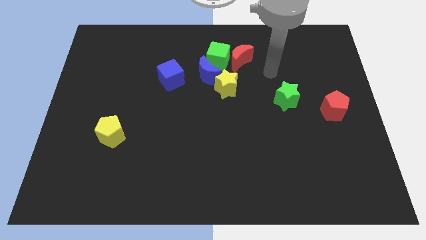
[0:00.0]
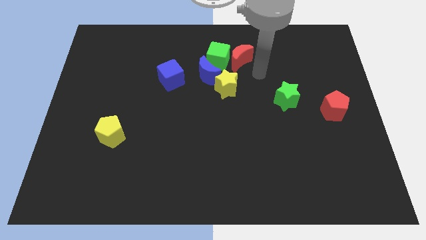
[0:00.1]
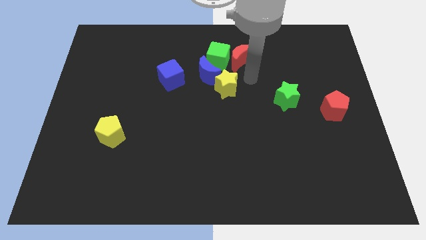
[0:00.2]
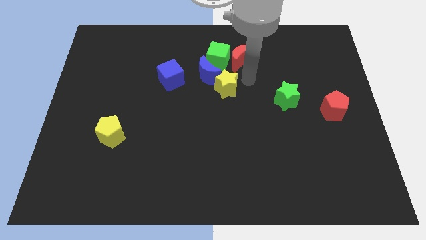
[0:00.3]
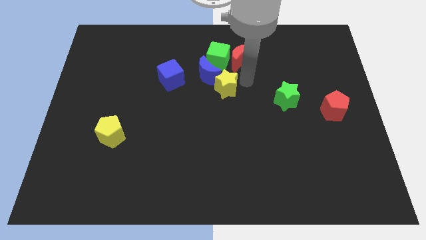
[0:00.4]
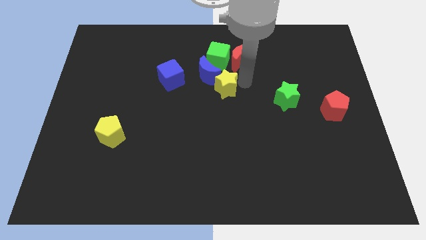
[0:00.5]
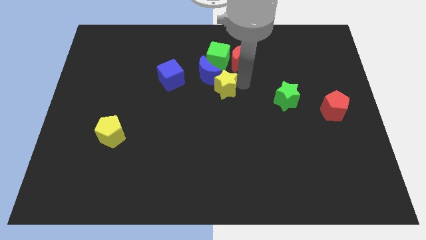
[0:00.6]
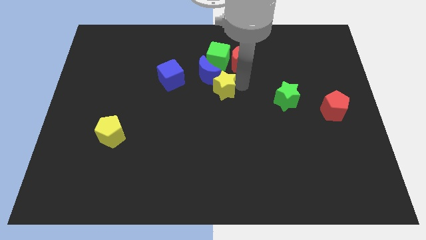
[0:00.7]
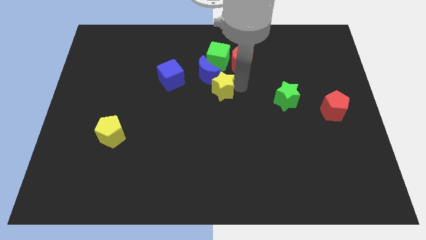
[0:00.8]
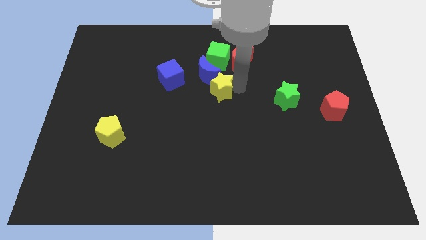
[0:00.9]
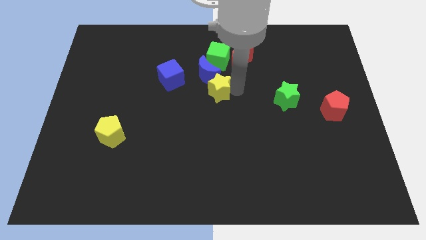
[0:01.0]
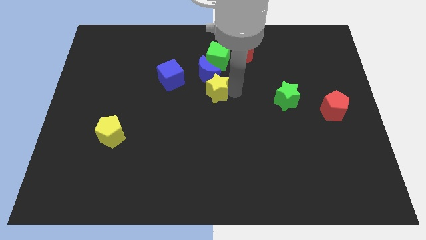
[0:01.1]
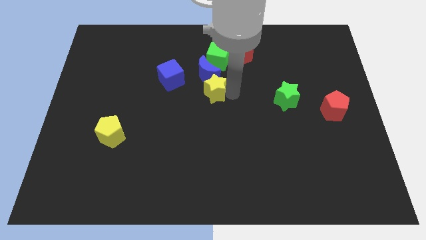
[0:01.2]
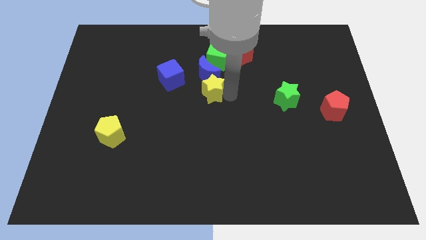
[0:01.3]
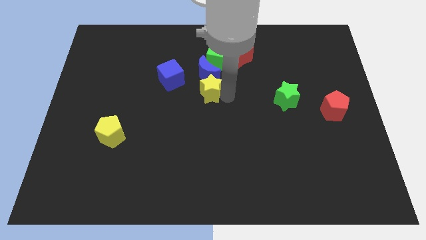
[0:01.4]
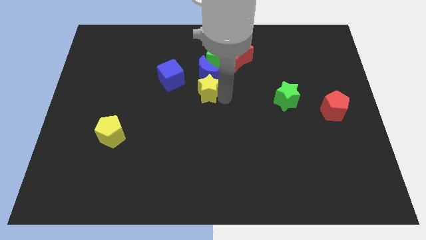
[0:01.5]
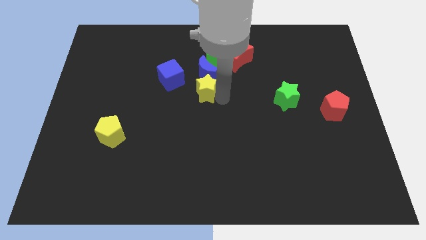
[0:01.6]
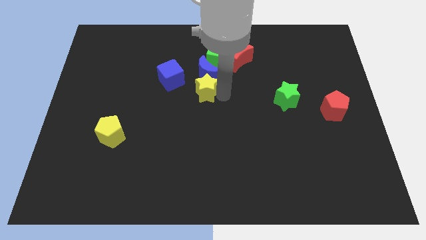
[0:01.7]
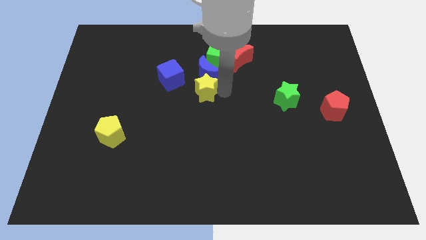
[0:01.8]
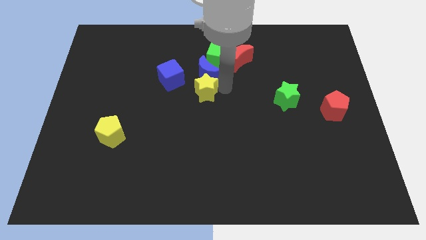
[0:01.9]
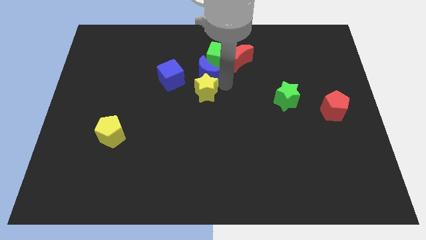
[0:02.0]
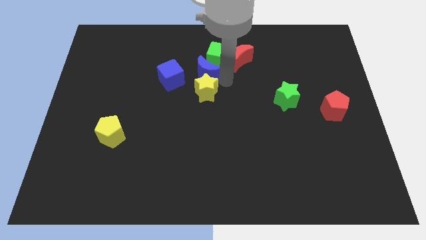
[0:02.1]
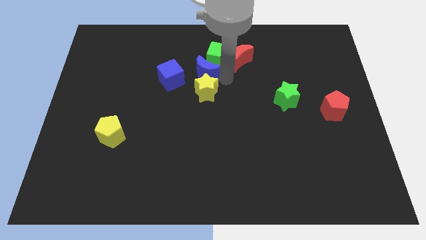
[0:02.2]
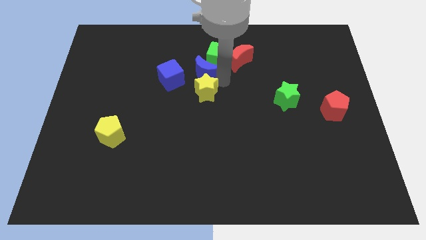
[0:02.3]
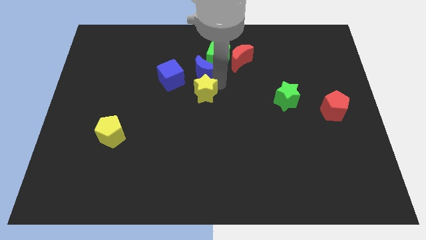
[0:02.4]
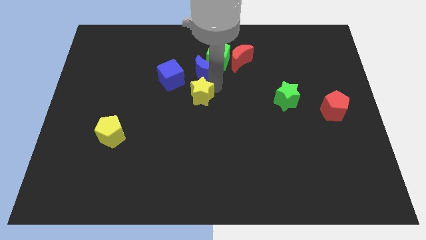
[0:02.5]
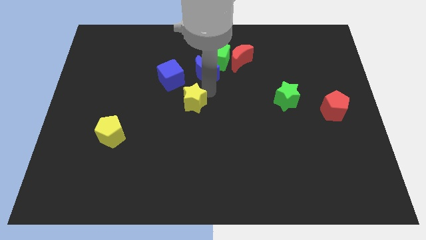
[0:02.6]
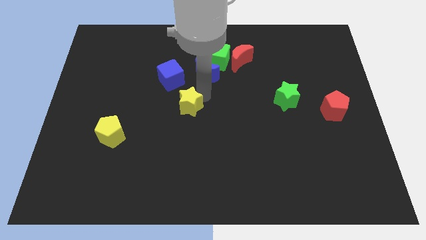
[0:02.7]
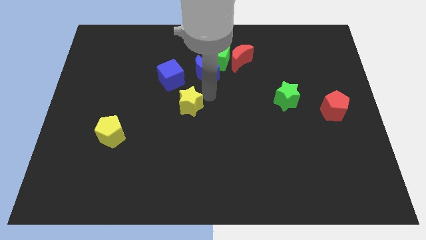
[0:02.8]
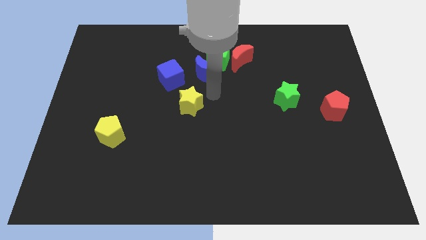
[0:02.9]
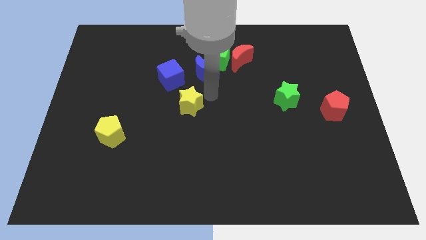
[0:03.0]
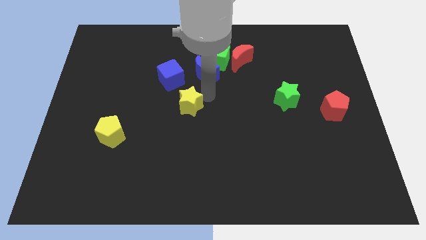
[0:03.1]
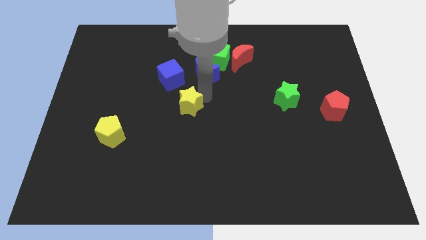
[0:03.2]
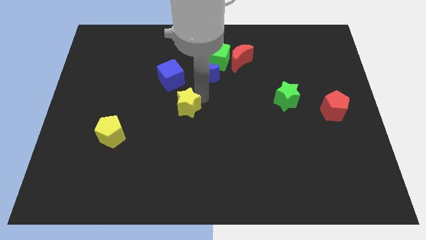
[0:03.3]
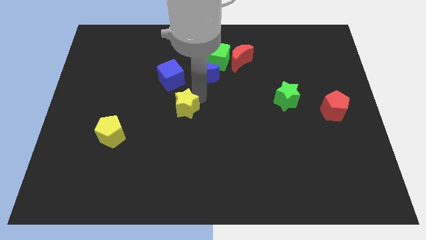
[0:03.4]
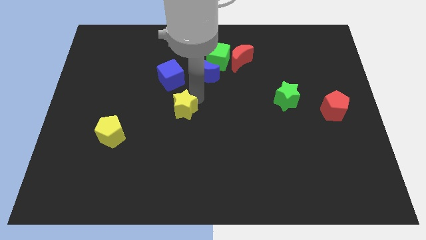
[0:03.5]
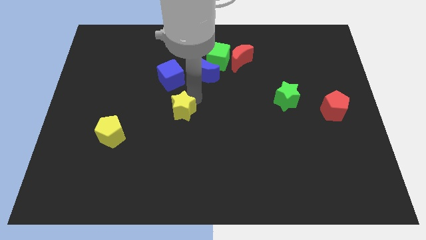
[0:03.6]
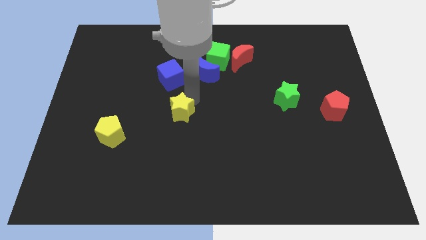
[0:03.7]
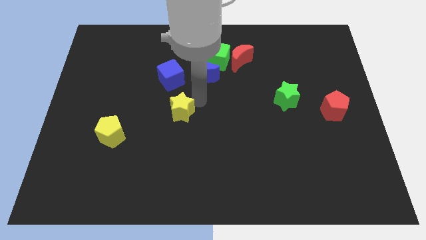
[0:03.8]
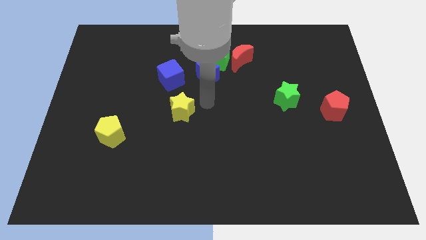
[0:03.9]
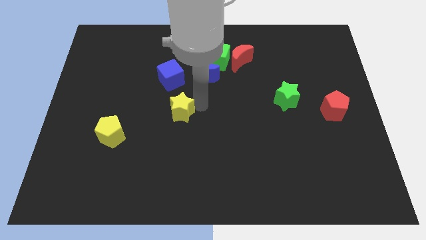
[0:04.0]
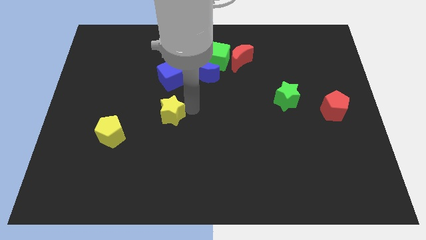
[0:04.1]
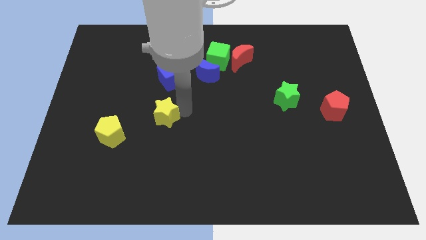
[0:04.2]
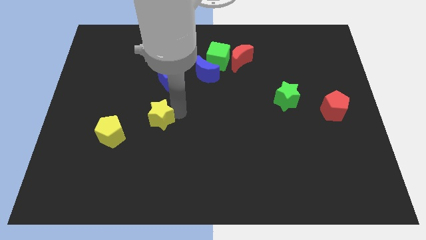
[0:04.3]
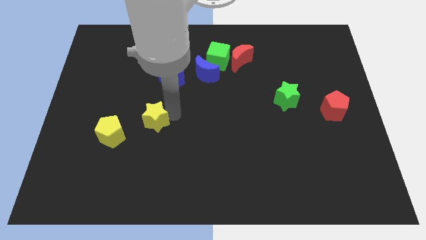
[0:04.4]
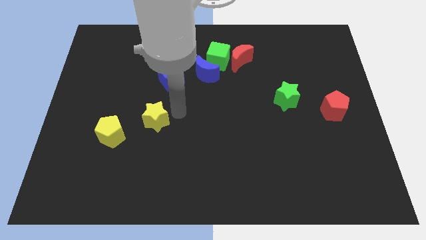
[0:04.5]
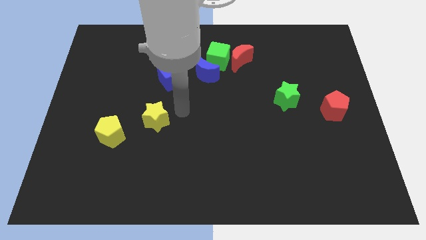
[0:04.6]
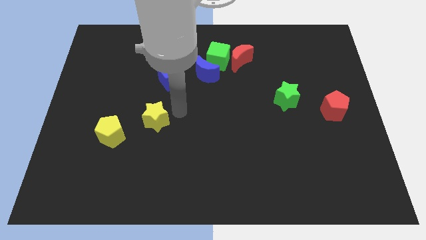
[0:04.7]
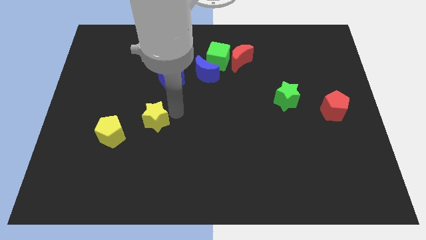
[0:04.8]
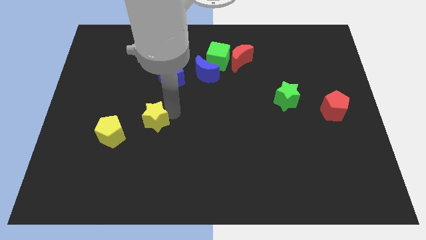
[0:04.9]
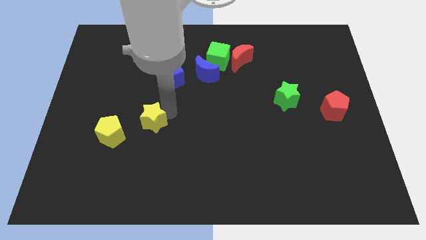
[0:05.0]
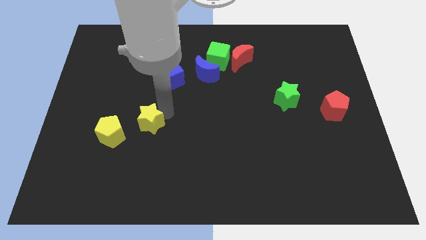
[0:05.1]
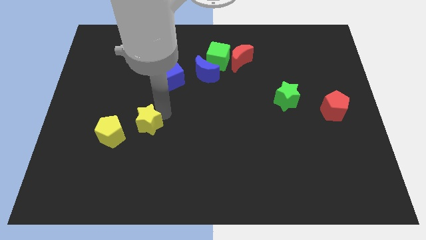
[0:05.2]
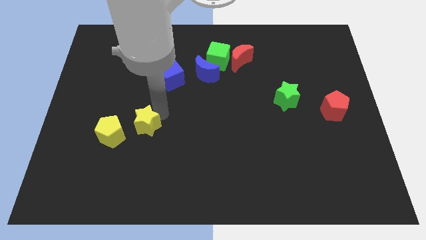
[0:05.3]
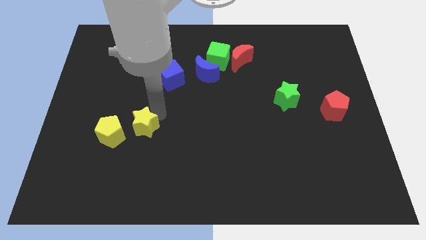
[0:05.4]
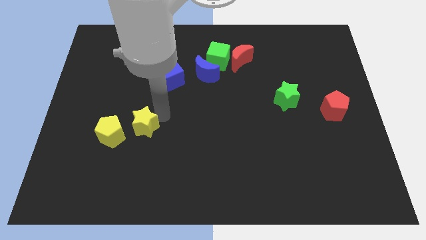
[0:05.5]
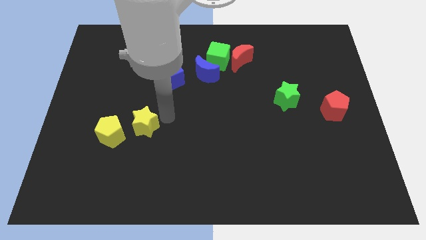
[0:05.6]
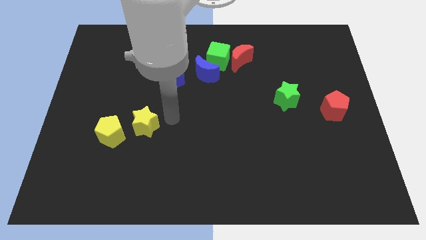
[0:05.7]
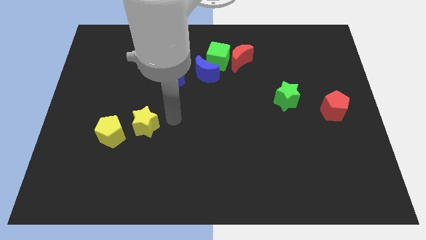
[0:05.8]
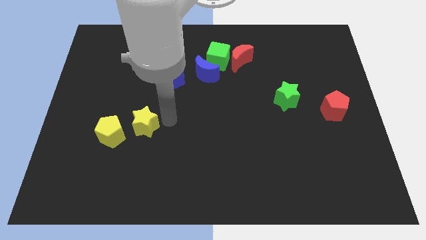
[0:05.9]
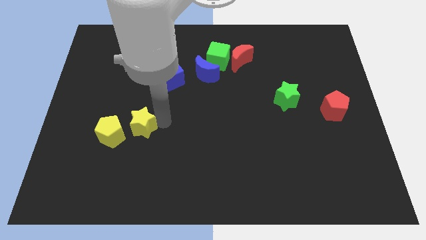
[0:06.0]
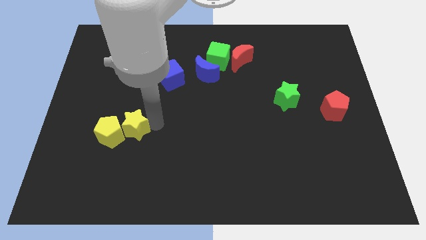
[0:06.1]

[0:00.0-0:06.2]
put the yellow star close to the yellow pentagon

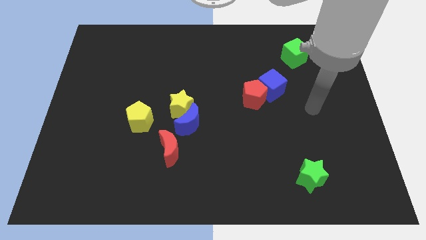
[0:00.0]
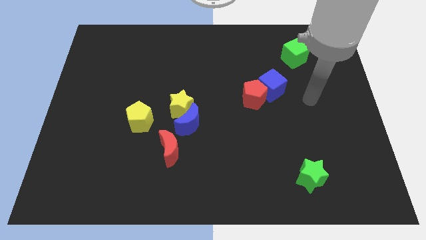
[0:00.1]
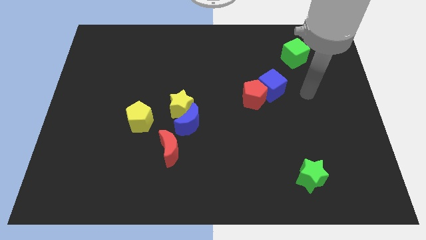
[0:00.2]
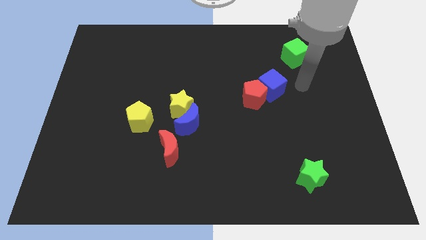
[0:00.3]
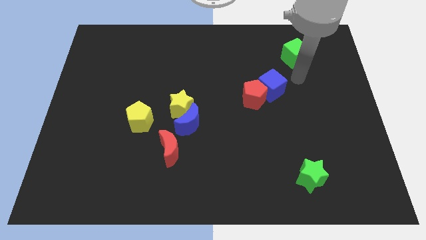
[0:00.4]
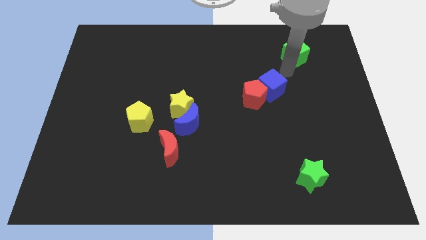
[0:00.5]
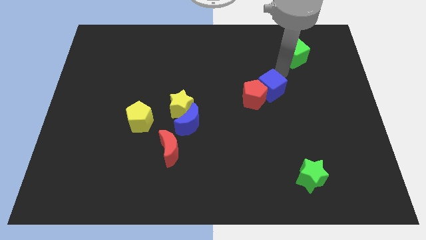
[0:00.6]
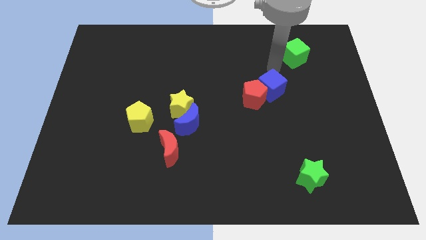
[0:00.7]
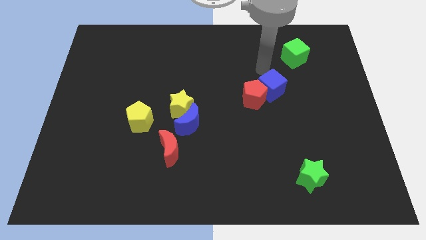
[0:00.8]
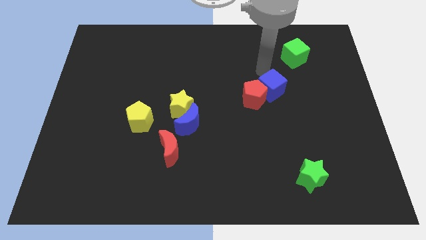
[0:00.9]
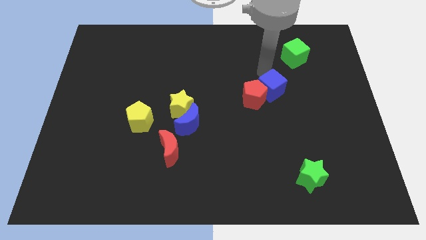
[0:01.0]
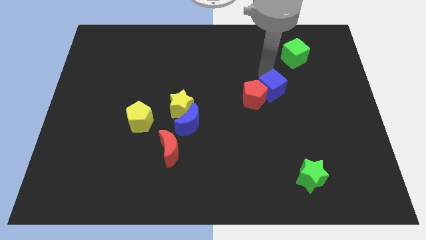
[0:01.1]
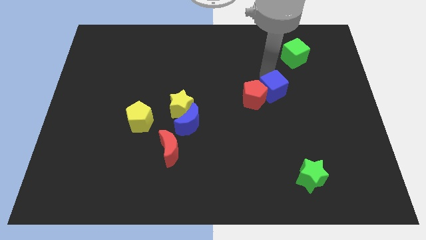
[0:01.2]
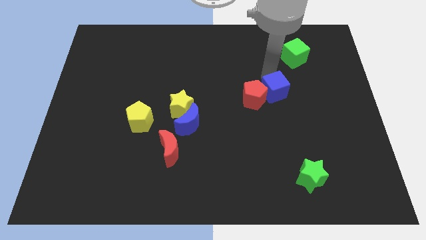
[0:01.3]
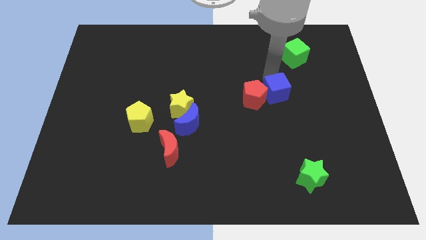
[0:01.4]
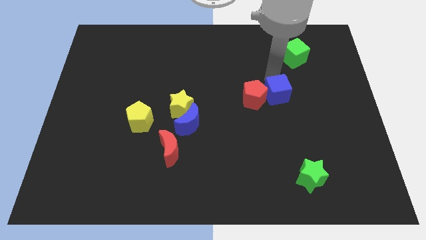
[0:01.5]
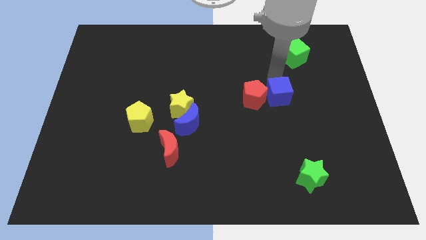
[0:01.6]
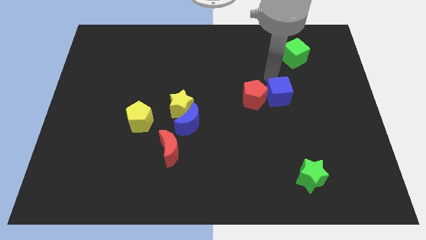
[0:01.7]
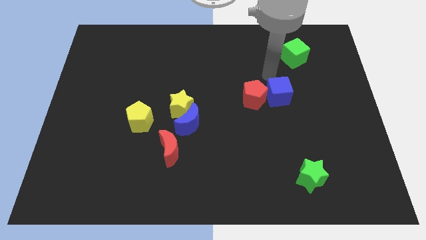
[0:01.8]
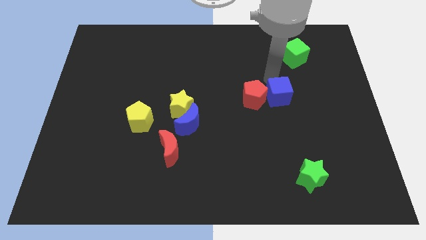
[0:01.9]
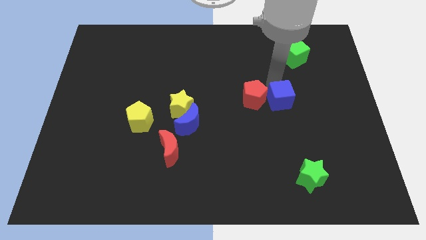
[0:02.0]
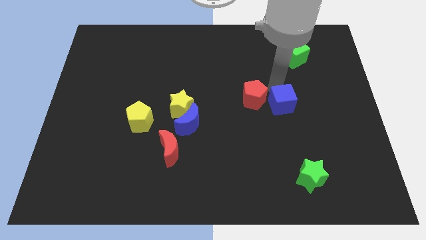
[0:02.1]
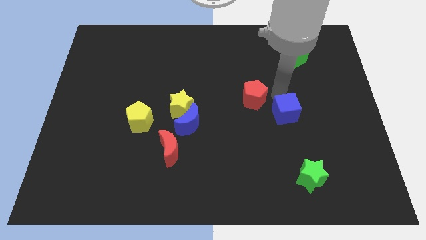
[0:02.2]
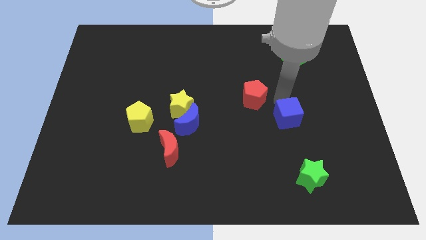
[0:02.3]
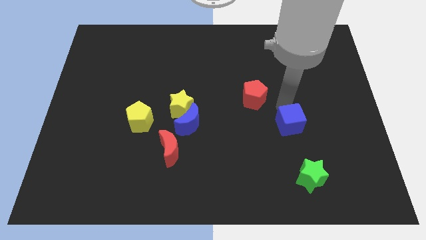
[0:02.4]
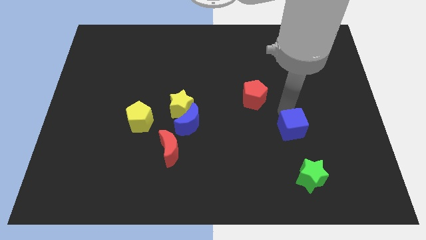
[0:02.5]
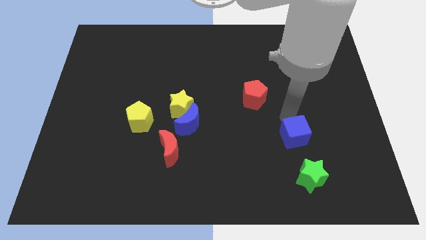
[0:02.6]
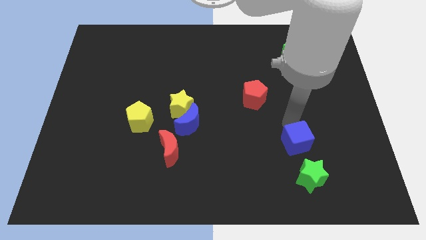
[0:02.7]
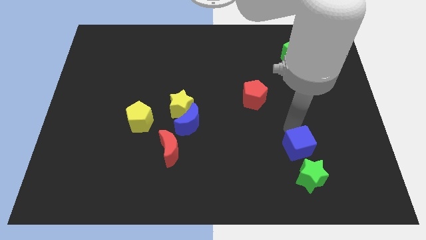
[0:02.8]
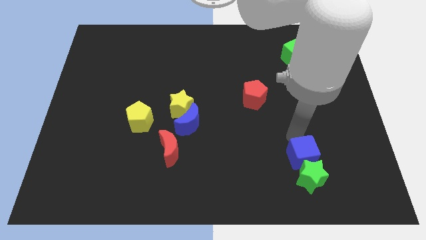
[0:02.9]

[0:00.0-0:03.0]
push the blue cube close to the green star
